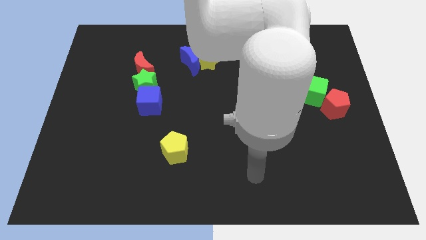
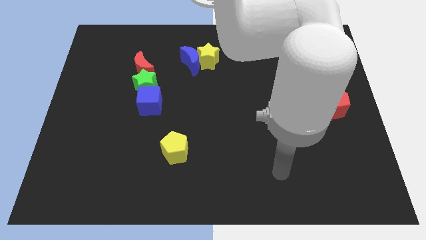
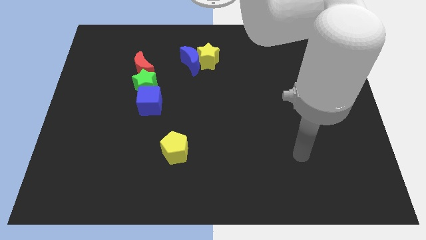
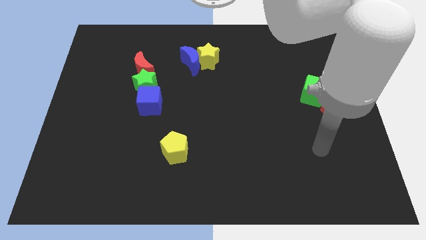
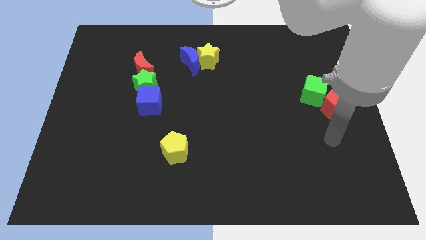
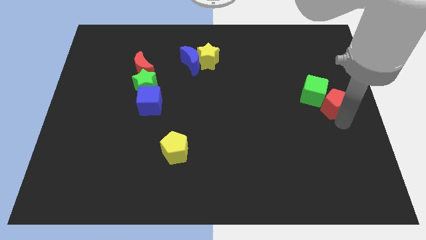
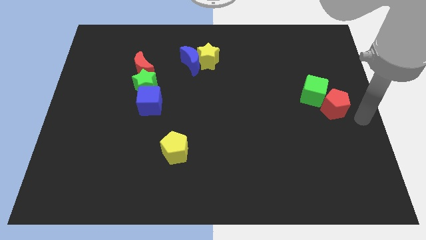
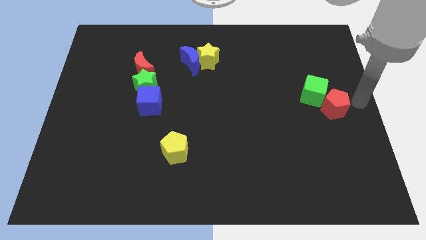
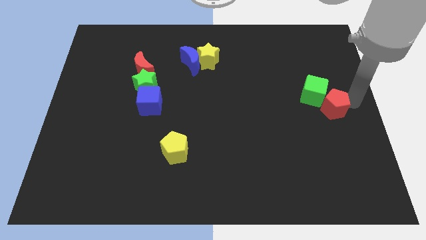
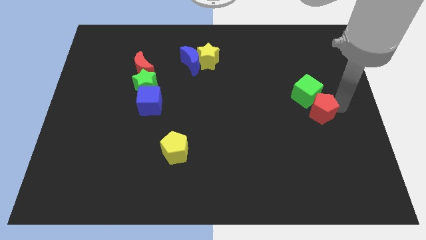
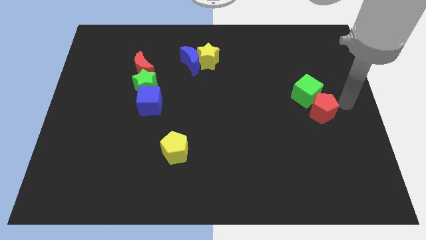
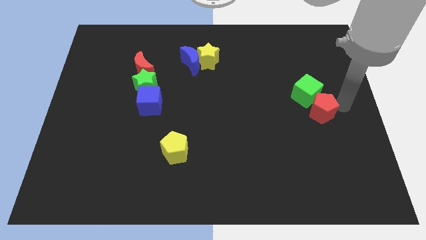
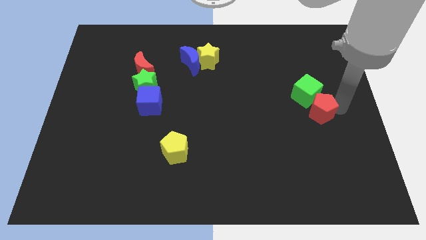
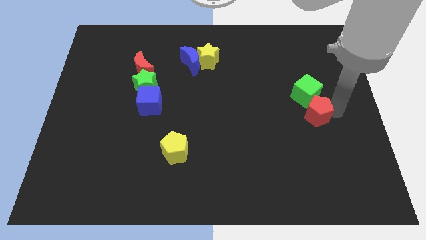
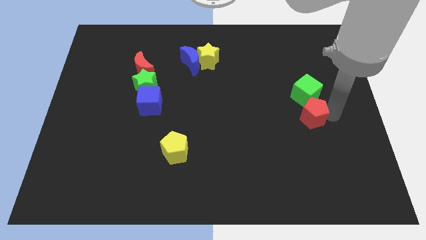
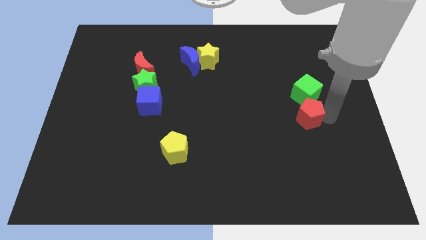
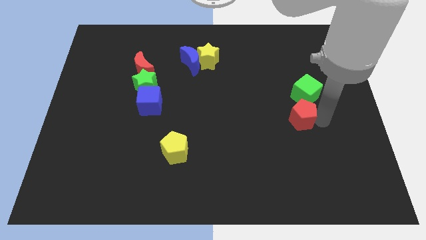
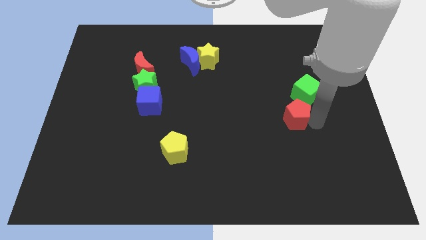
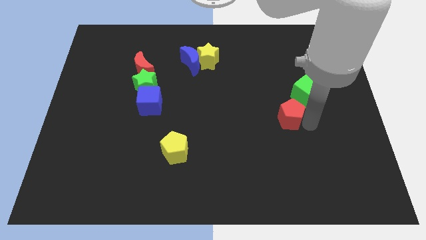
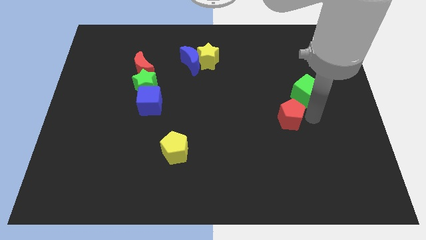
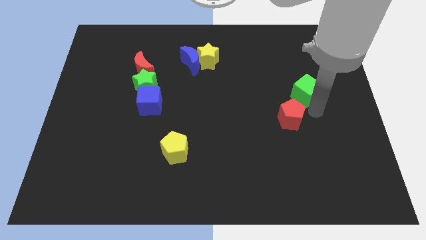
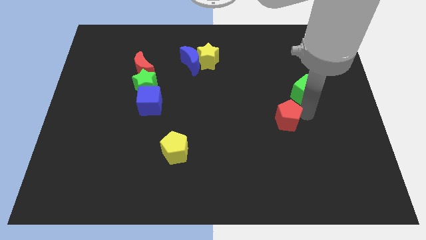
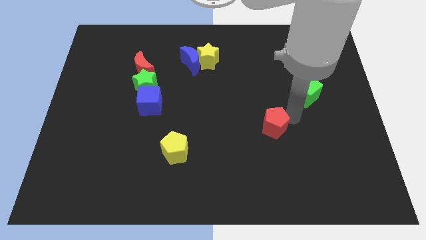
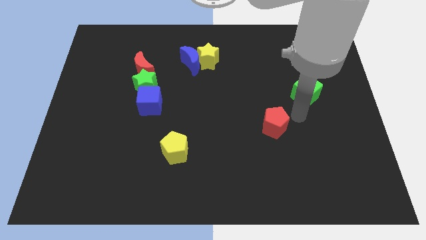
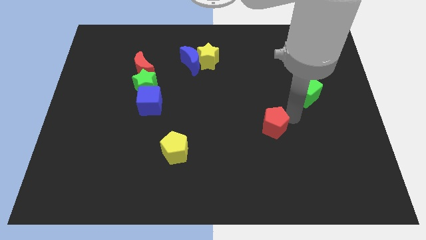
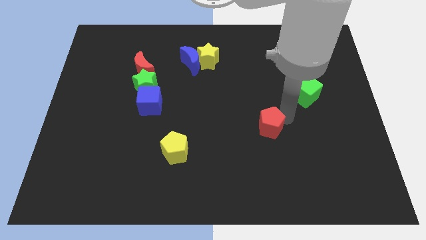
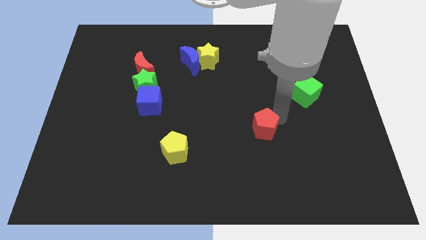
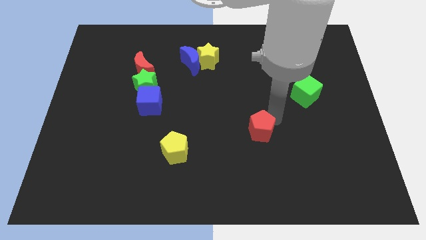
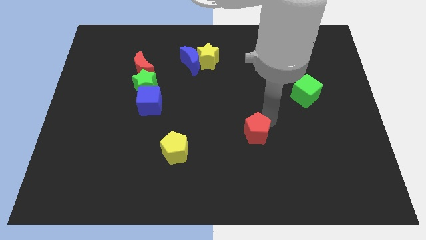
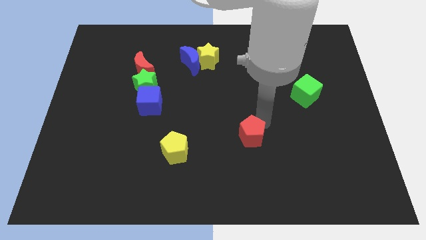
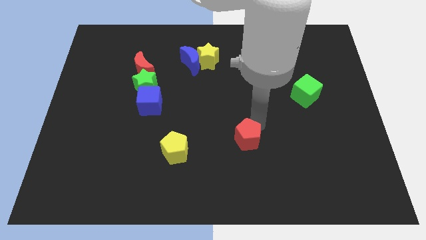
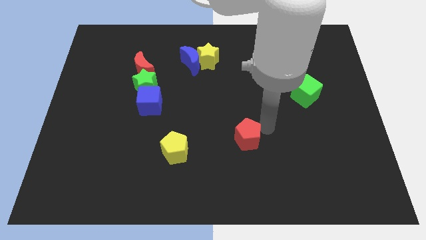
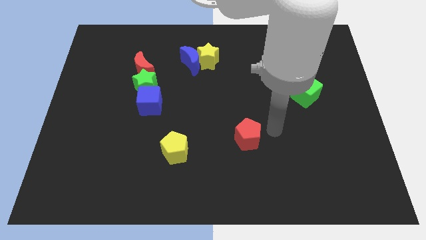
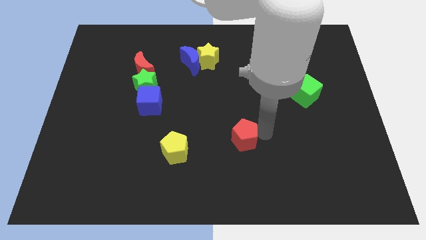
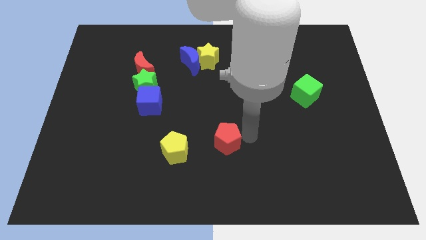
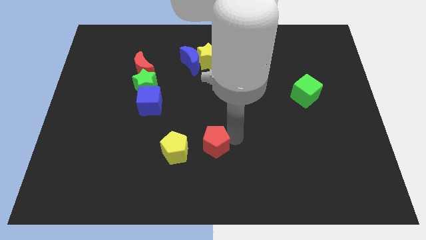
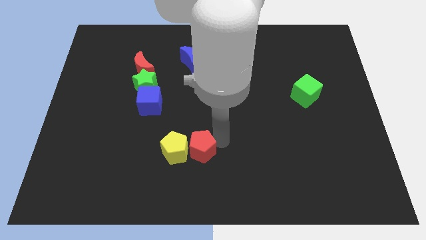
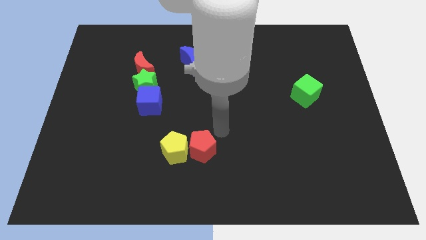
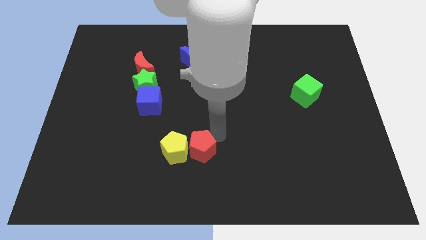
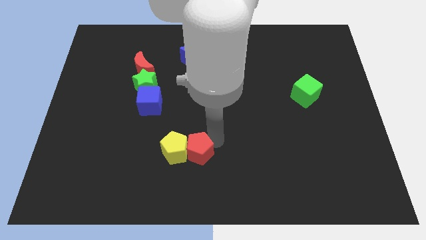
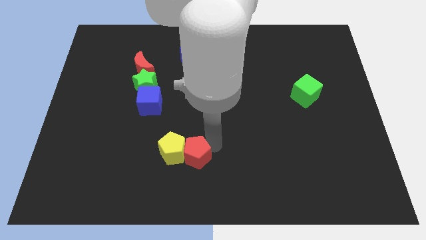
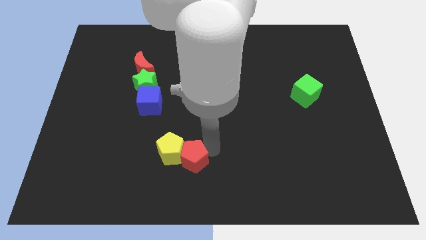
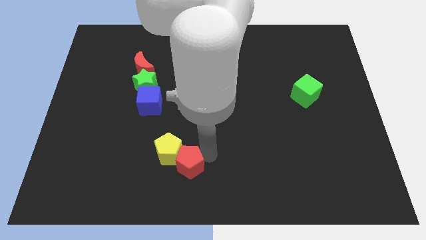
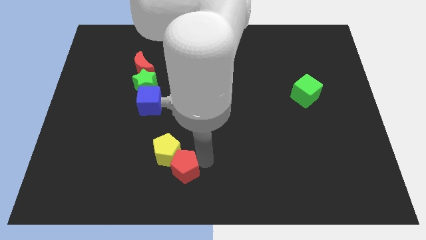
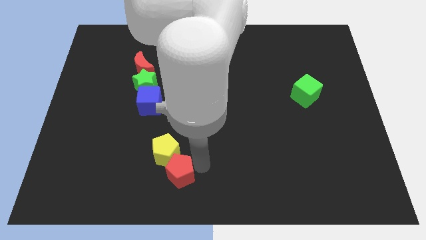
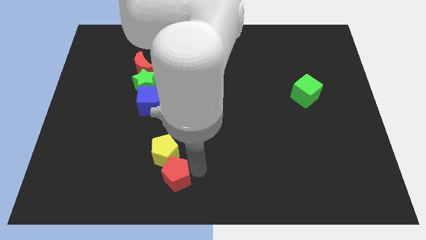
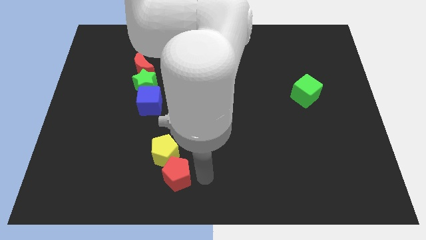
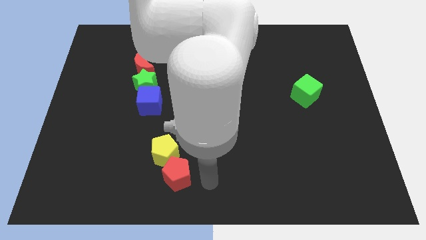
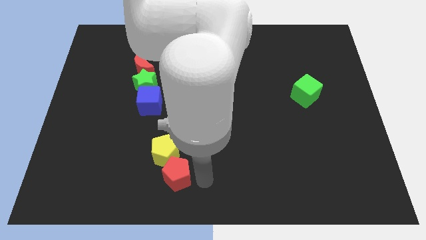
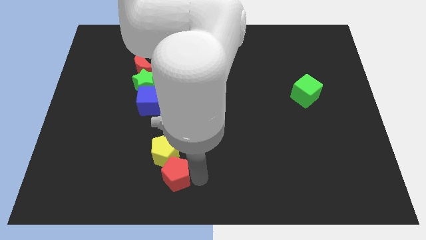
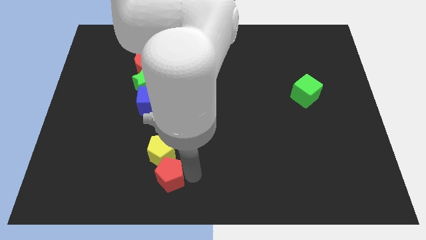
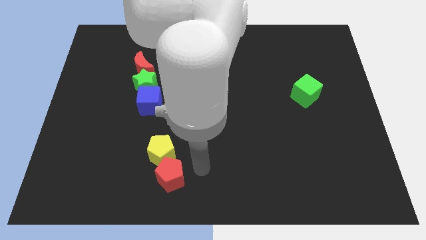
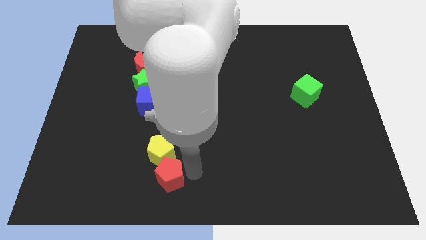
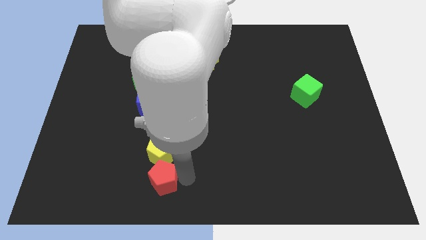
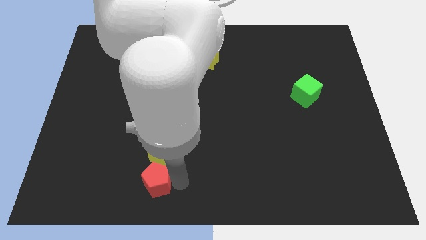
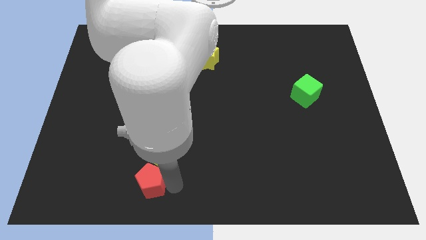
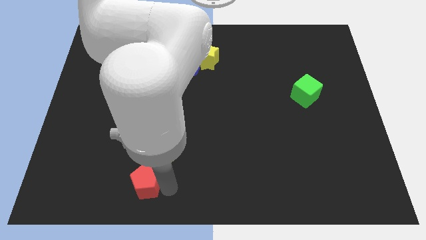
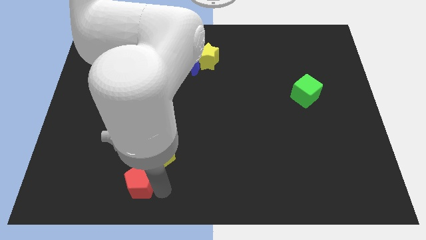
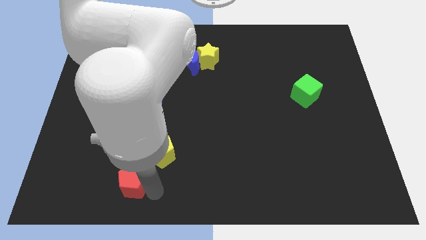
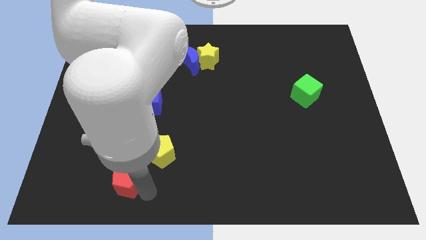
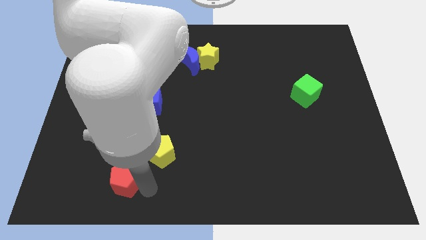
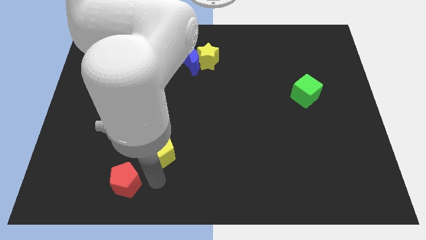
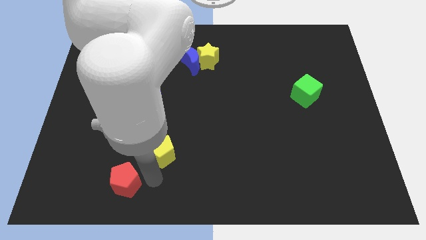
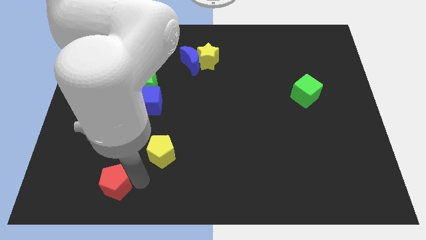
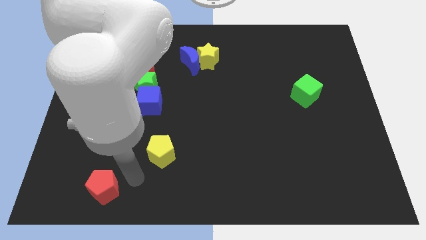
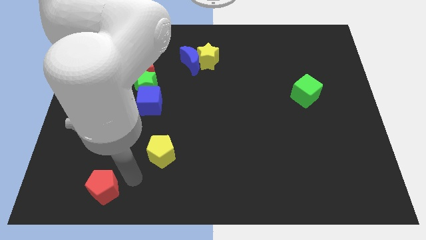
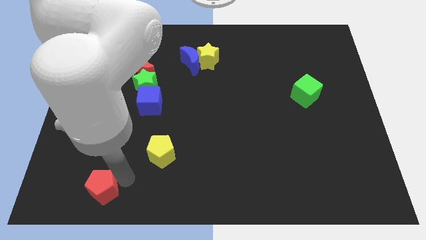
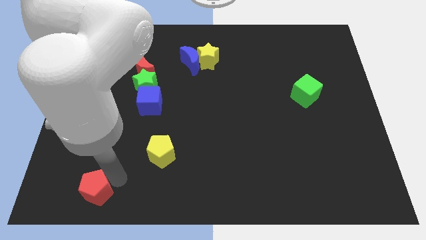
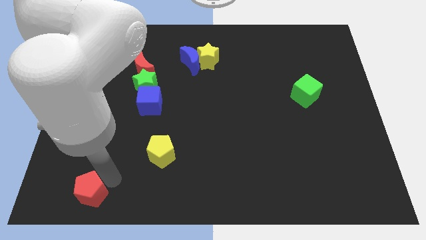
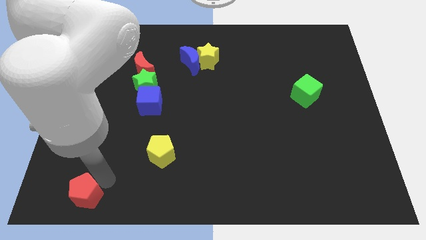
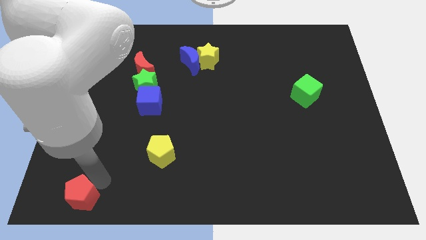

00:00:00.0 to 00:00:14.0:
push the red pentagon to the bottom left of the board
